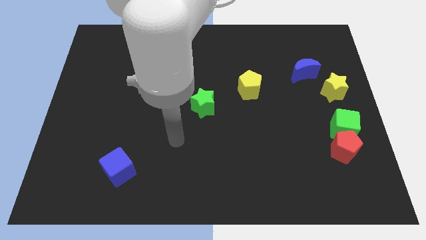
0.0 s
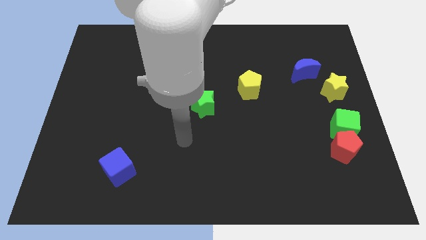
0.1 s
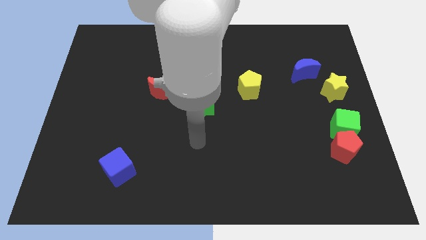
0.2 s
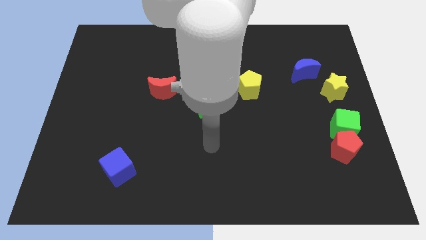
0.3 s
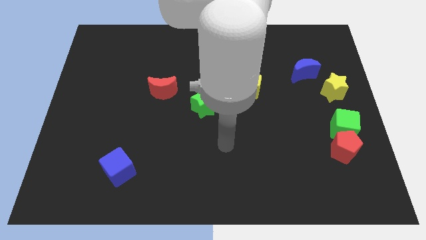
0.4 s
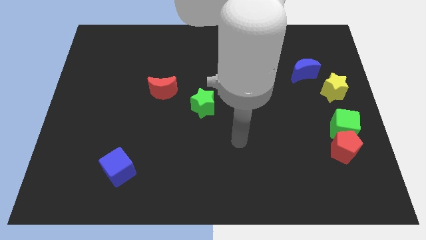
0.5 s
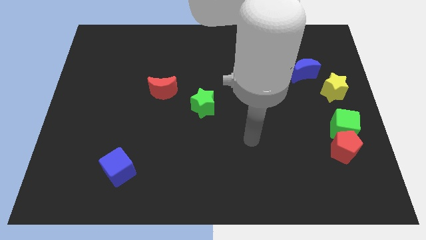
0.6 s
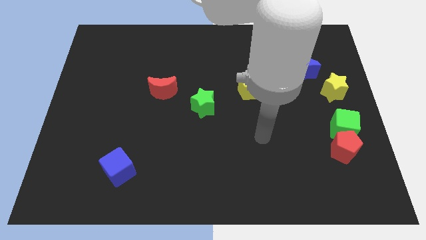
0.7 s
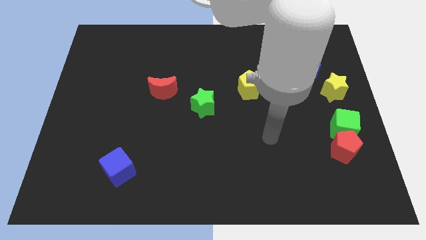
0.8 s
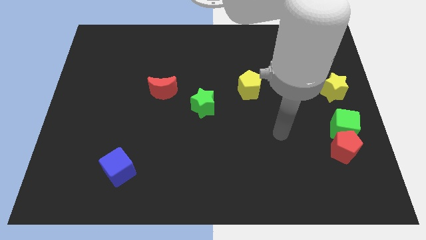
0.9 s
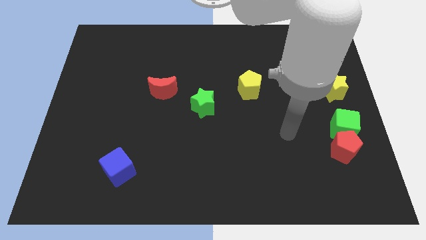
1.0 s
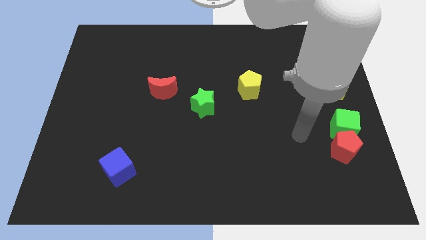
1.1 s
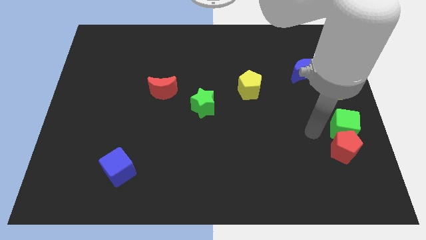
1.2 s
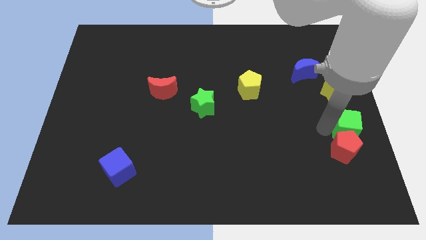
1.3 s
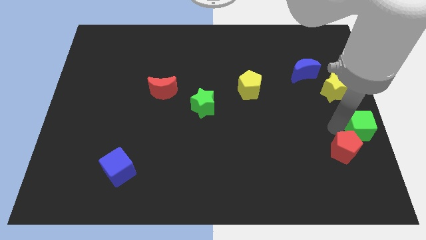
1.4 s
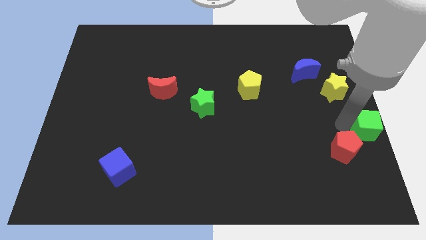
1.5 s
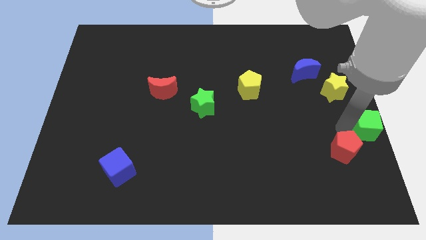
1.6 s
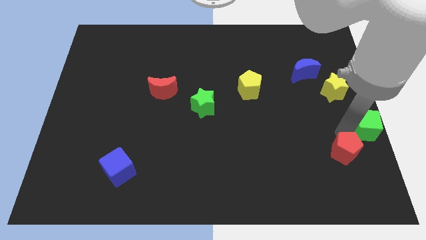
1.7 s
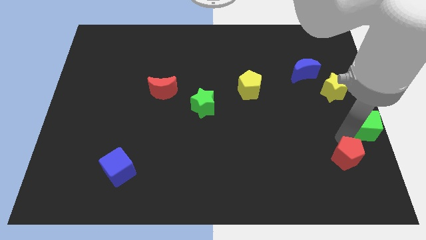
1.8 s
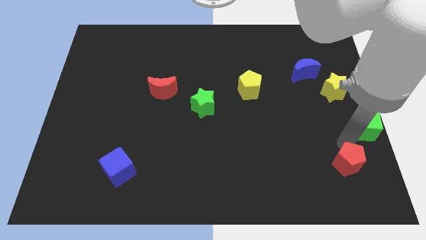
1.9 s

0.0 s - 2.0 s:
move the red pentagon away from the green cube

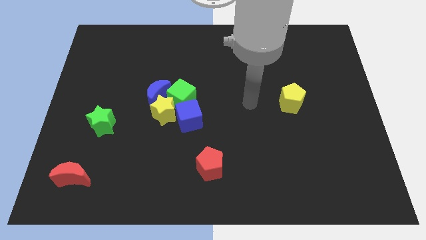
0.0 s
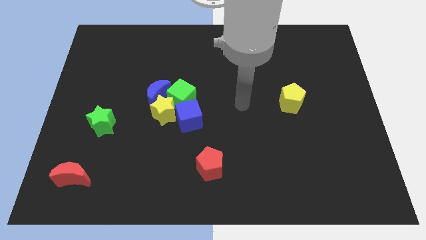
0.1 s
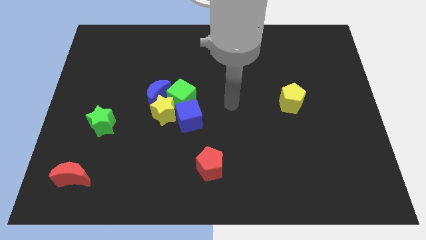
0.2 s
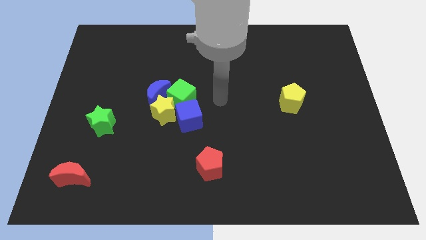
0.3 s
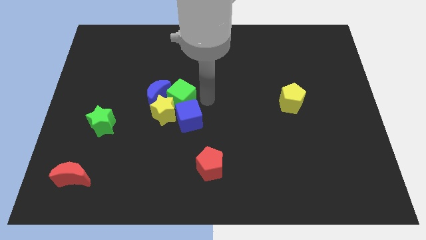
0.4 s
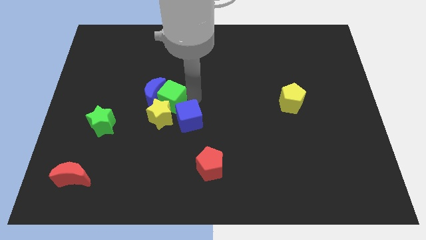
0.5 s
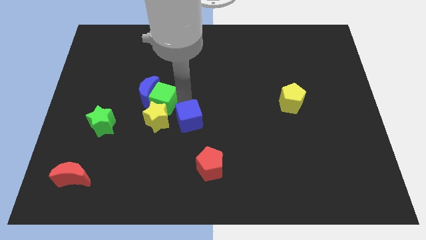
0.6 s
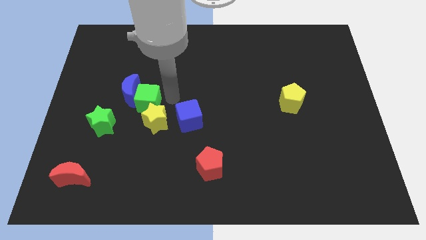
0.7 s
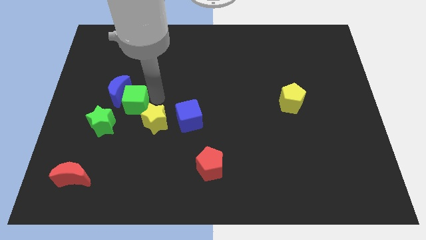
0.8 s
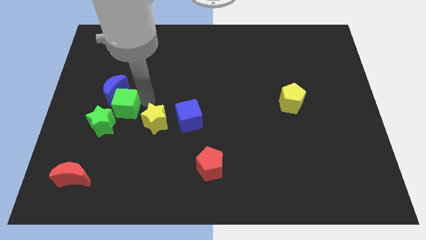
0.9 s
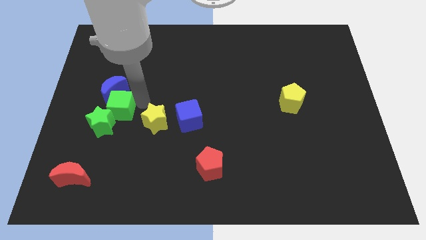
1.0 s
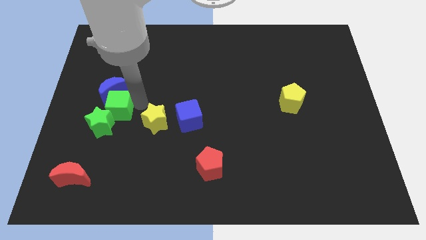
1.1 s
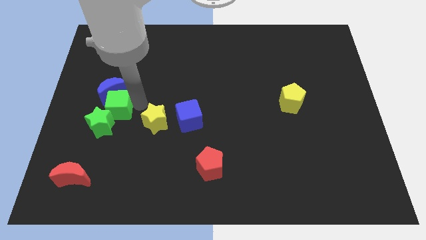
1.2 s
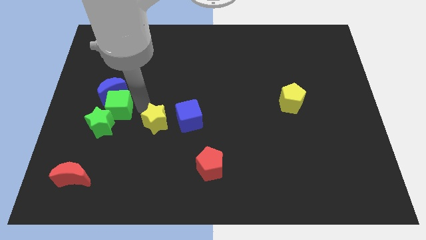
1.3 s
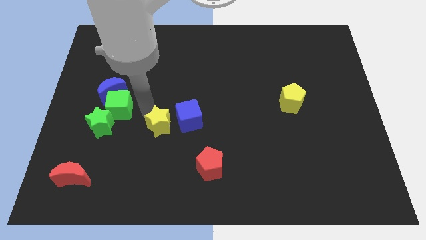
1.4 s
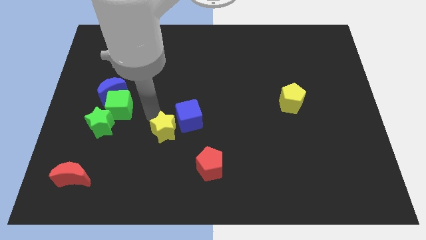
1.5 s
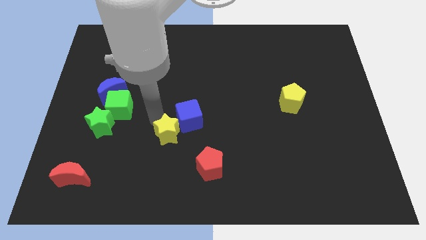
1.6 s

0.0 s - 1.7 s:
move the yellow star away from the clump

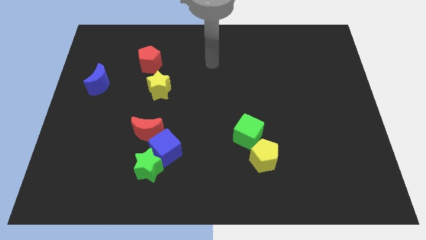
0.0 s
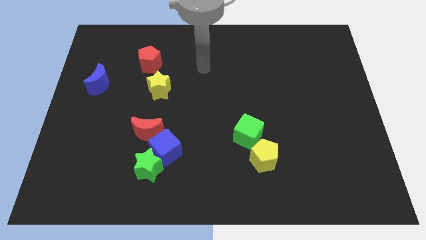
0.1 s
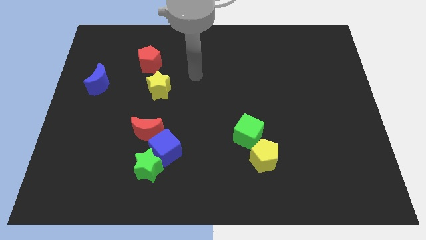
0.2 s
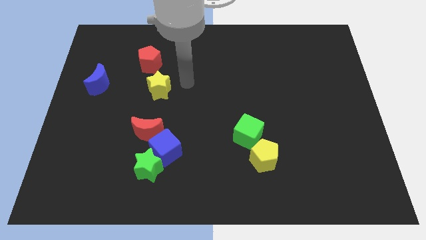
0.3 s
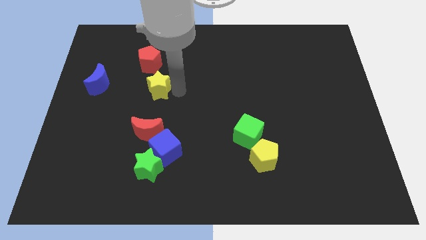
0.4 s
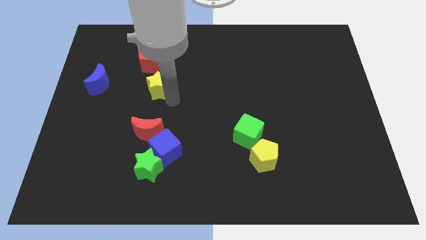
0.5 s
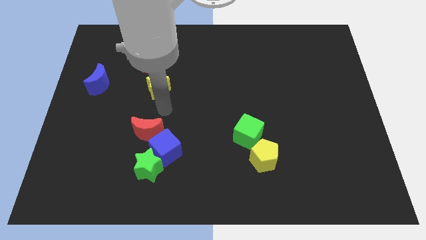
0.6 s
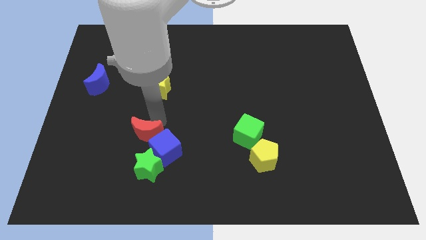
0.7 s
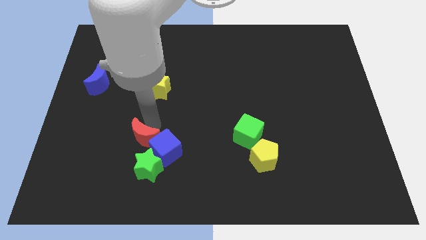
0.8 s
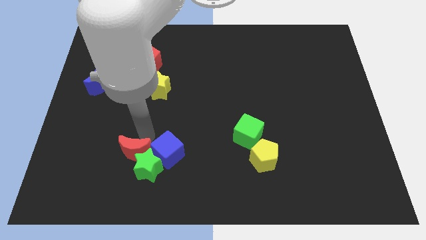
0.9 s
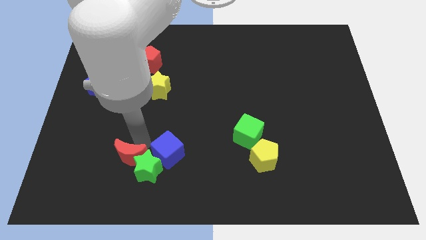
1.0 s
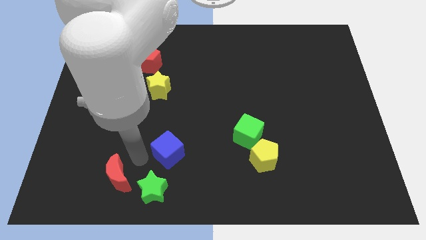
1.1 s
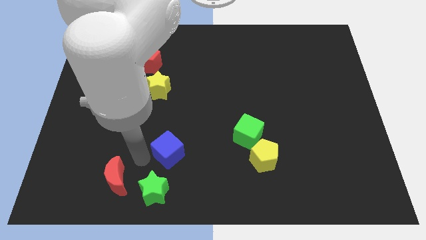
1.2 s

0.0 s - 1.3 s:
move the blue cube away from the green star and red moon

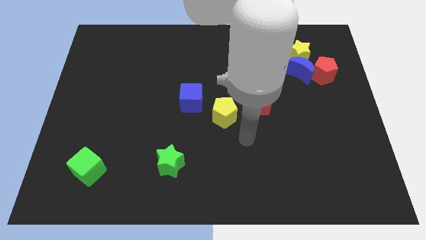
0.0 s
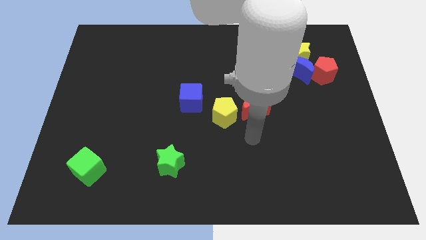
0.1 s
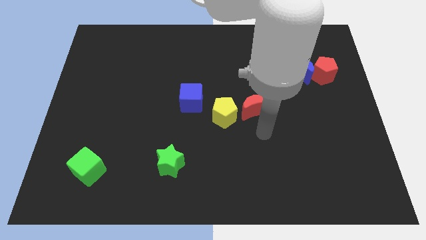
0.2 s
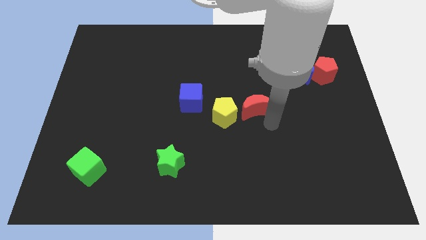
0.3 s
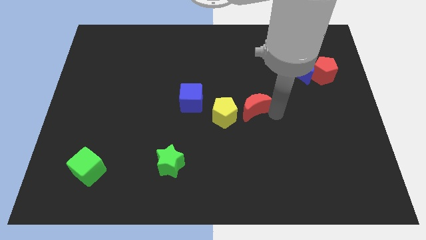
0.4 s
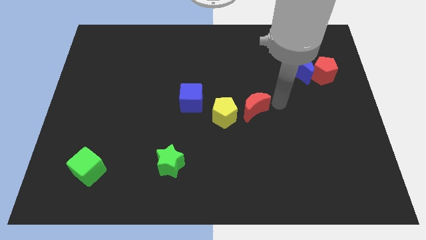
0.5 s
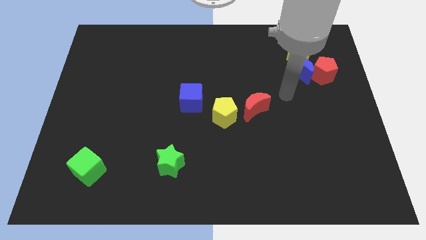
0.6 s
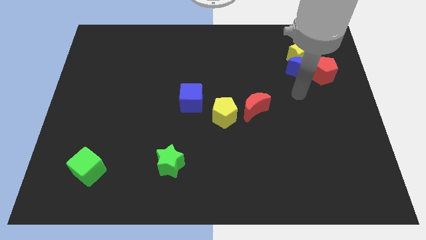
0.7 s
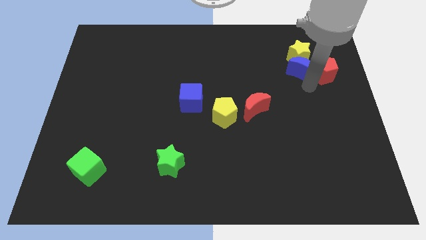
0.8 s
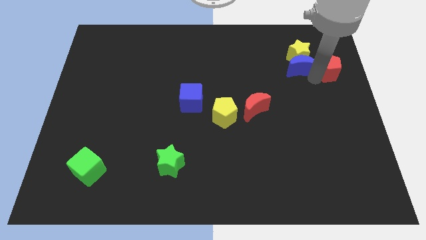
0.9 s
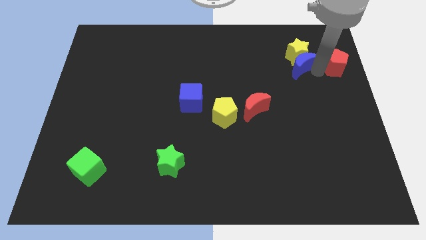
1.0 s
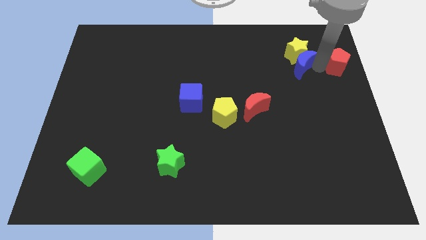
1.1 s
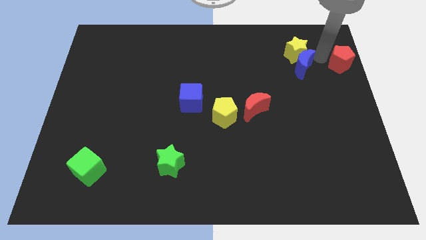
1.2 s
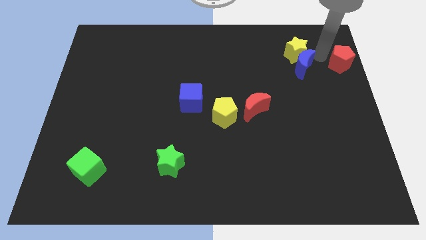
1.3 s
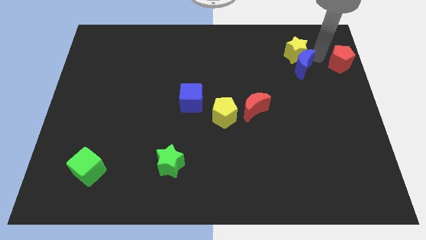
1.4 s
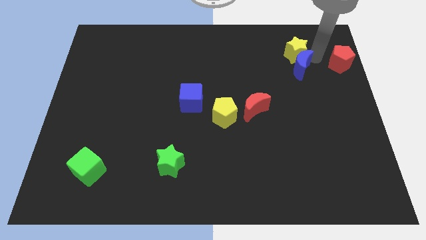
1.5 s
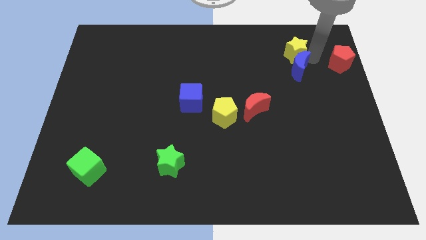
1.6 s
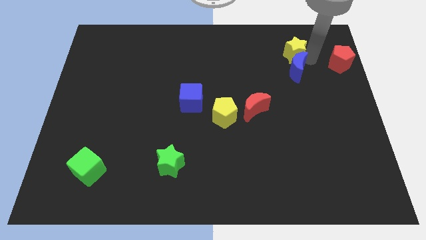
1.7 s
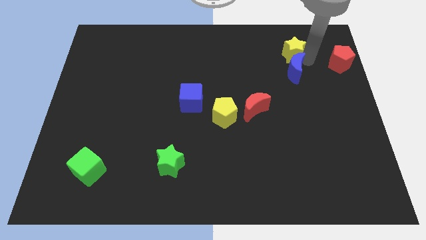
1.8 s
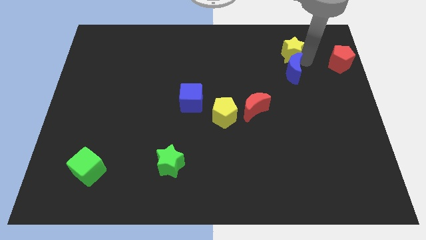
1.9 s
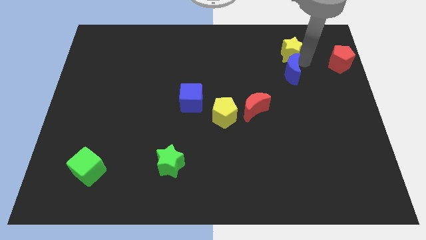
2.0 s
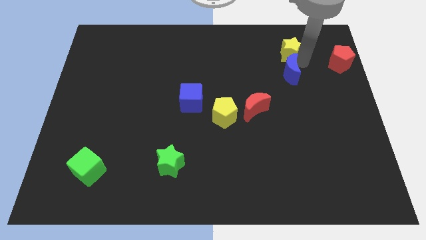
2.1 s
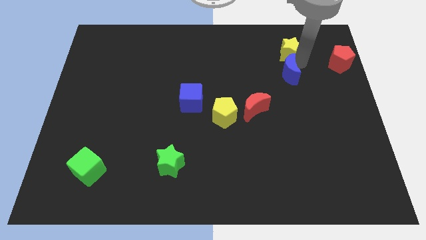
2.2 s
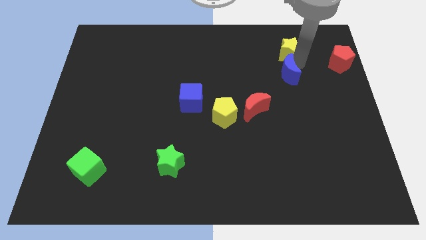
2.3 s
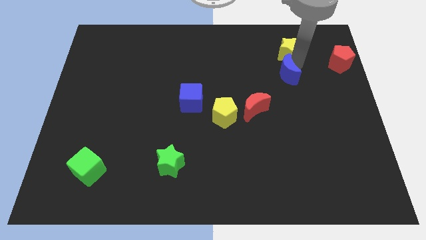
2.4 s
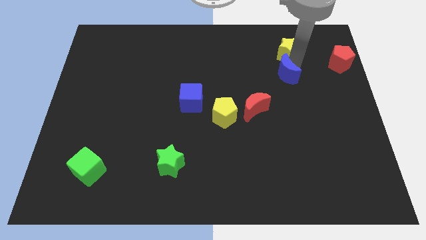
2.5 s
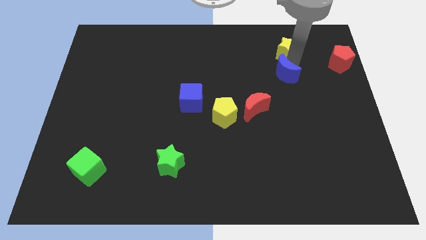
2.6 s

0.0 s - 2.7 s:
pull the blue moon apart from the yellow star and red pentagon

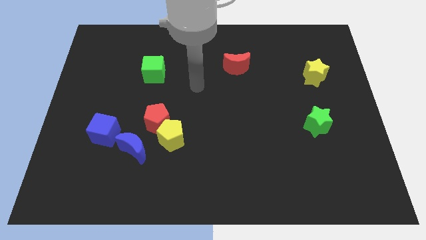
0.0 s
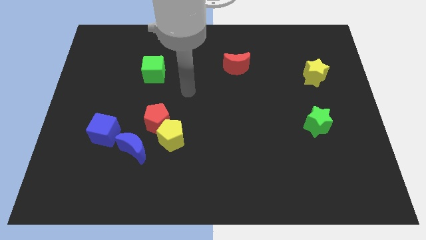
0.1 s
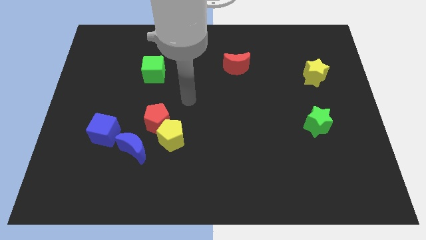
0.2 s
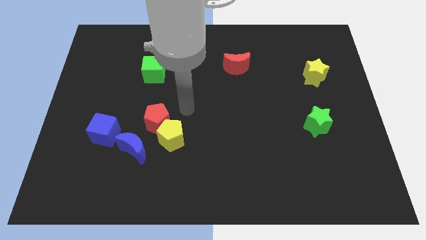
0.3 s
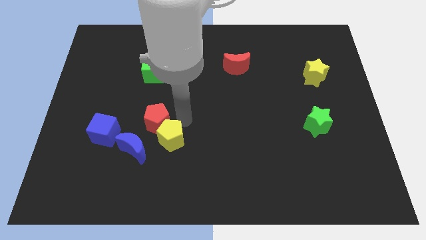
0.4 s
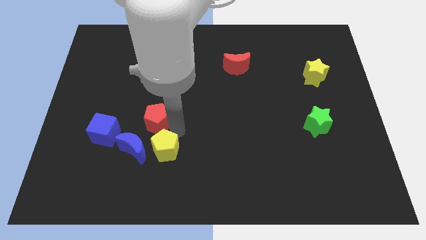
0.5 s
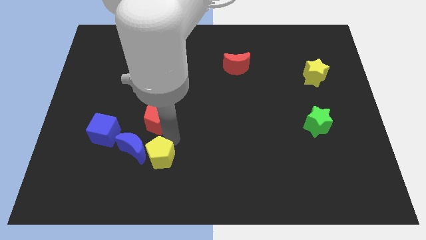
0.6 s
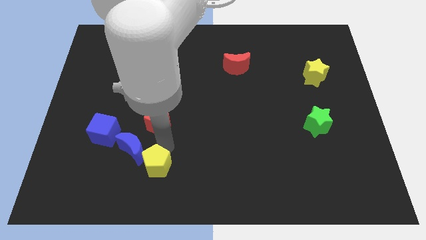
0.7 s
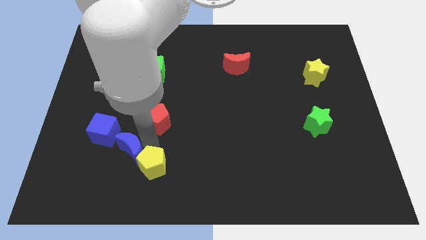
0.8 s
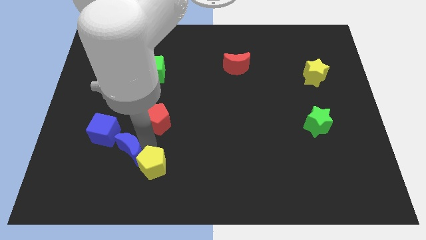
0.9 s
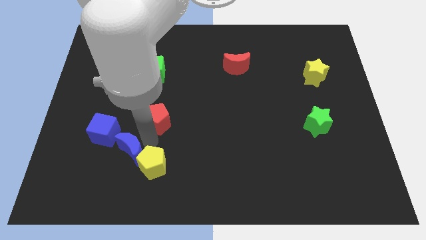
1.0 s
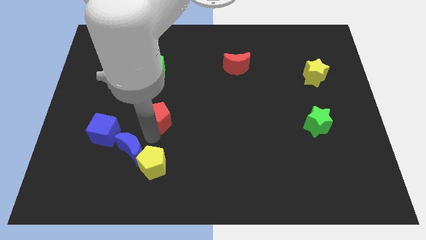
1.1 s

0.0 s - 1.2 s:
move the red pentagon away from the yellow pentagon and blue moon

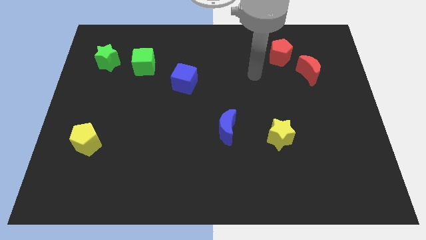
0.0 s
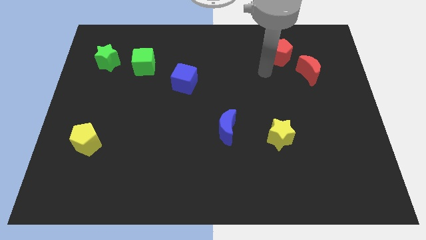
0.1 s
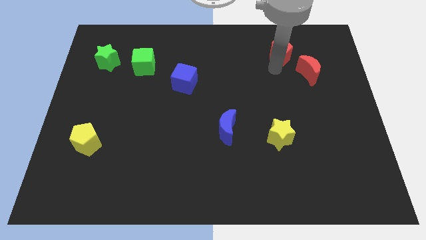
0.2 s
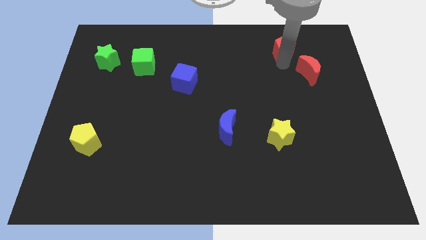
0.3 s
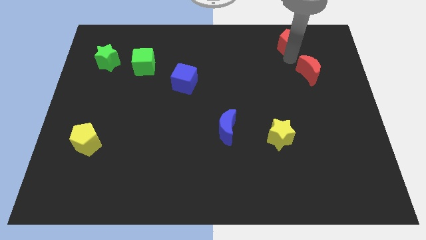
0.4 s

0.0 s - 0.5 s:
move the red moon away from the red pentagon
